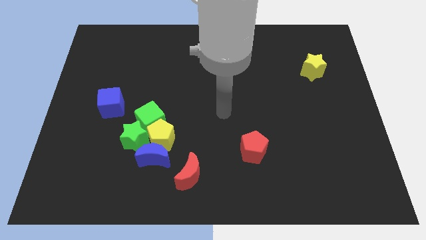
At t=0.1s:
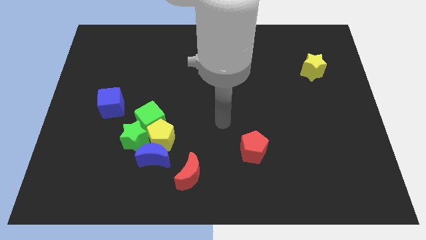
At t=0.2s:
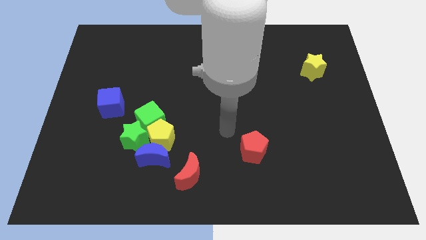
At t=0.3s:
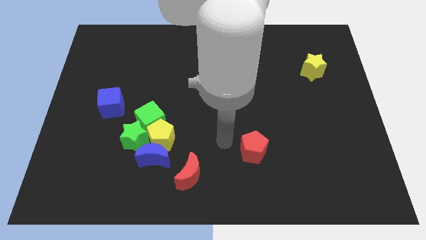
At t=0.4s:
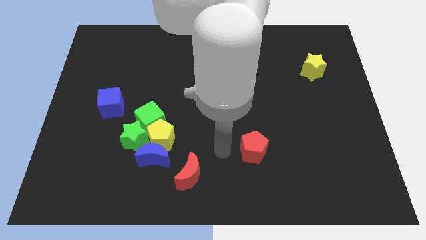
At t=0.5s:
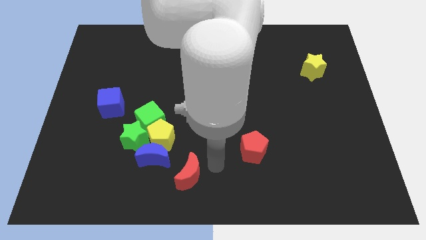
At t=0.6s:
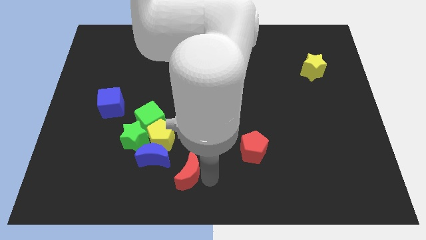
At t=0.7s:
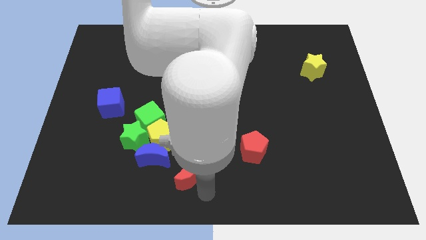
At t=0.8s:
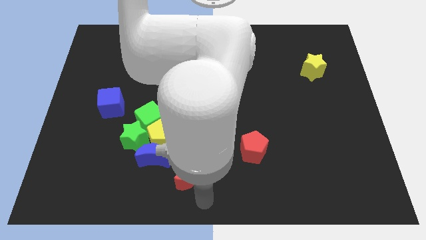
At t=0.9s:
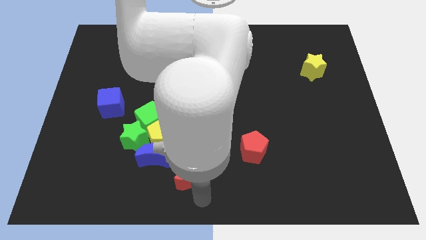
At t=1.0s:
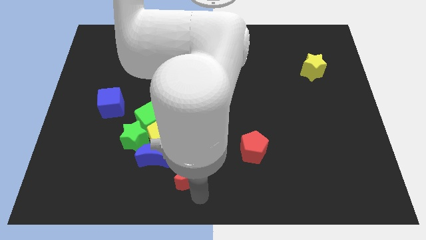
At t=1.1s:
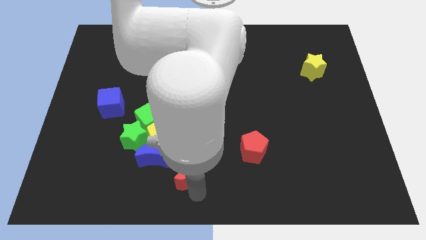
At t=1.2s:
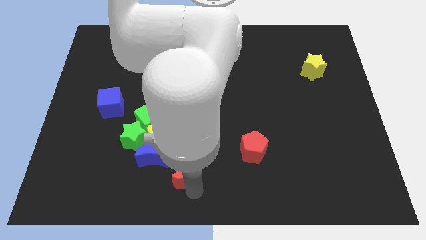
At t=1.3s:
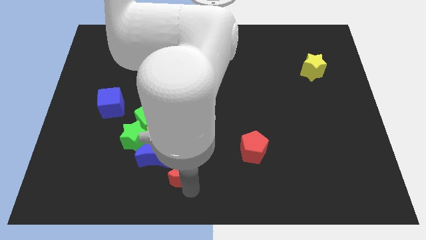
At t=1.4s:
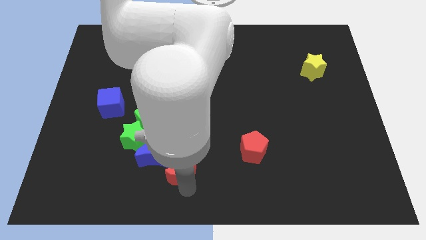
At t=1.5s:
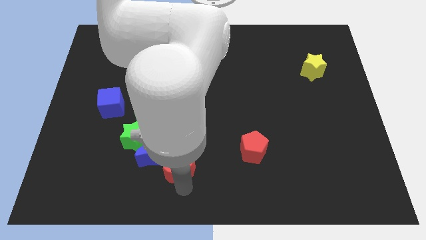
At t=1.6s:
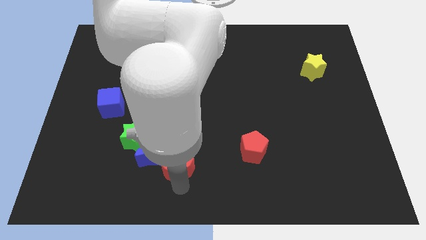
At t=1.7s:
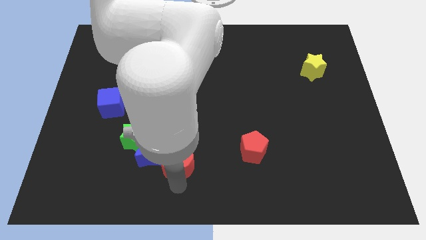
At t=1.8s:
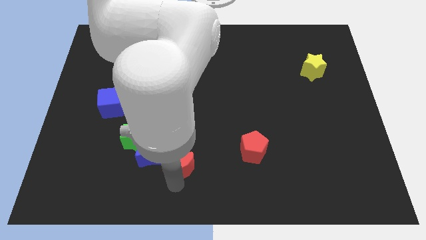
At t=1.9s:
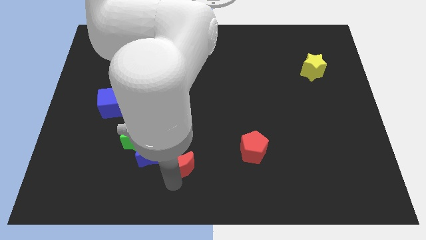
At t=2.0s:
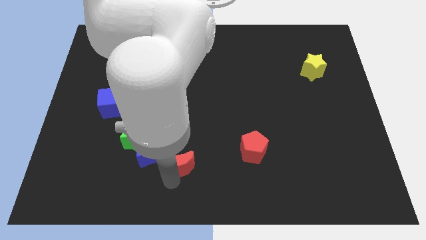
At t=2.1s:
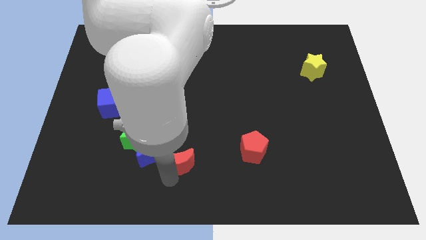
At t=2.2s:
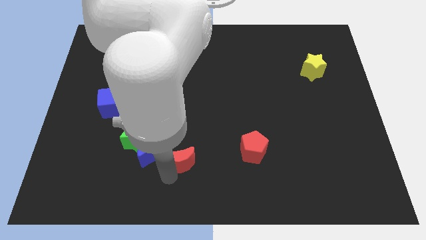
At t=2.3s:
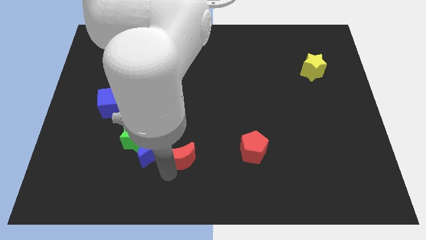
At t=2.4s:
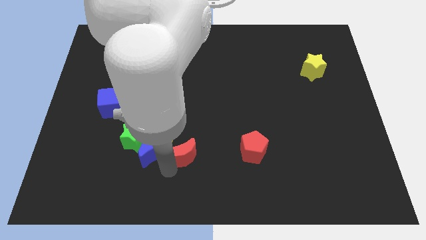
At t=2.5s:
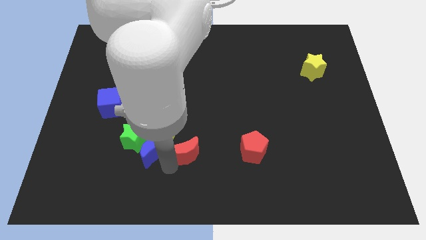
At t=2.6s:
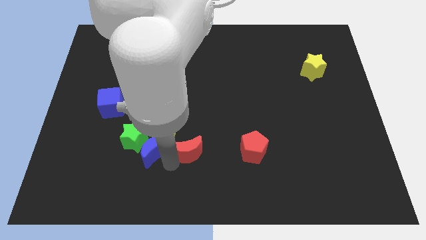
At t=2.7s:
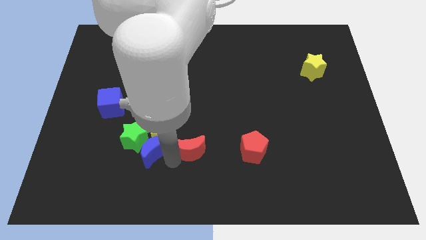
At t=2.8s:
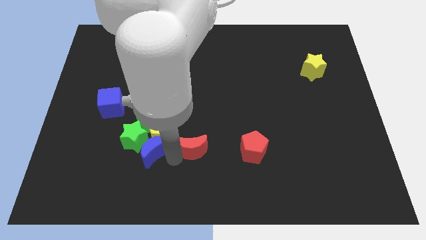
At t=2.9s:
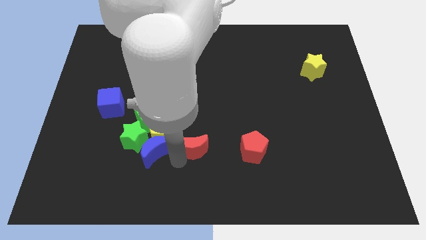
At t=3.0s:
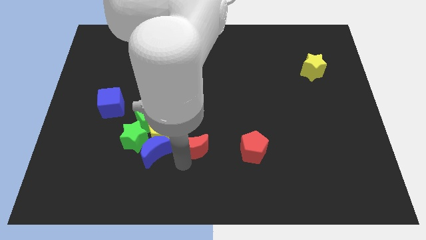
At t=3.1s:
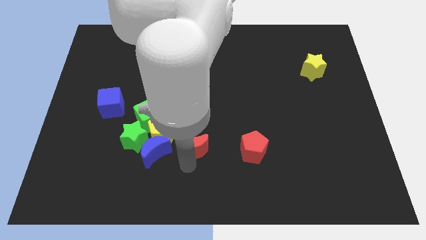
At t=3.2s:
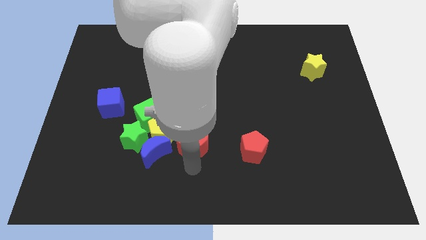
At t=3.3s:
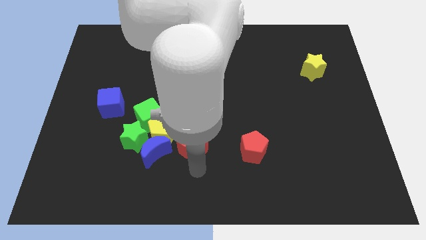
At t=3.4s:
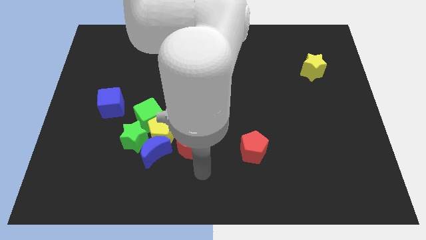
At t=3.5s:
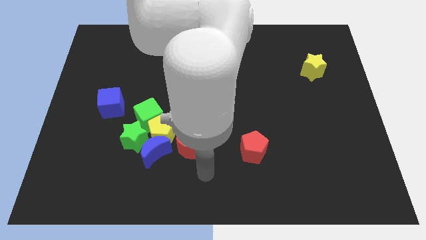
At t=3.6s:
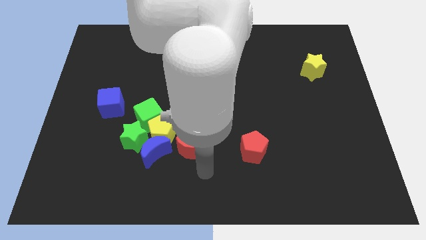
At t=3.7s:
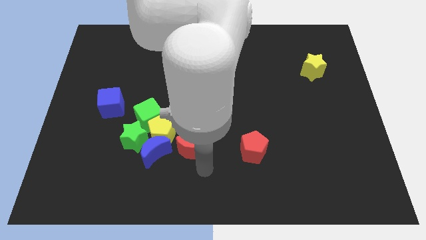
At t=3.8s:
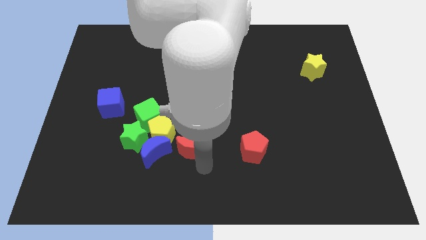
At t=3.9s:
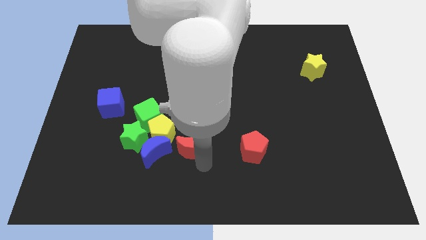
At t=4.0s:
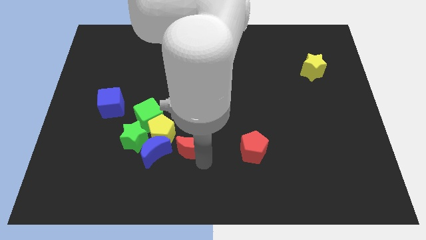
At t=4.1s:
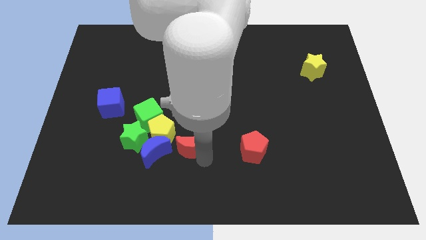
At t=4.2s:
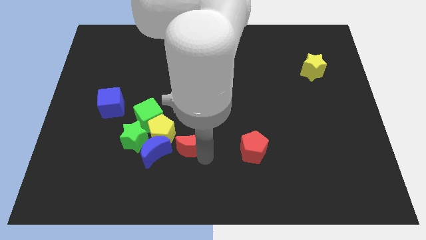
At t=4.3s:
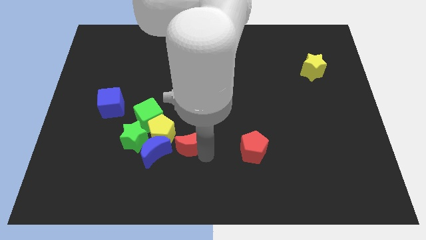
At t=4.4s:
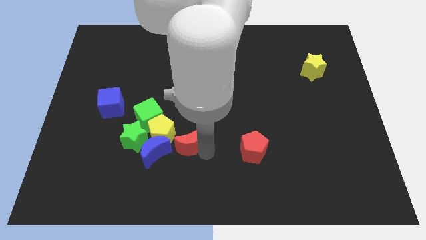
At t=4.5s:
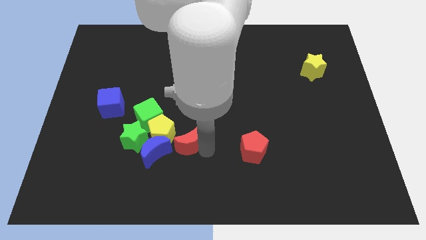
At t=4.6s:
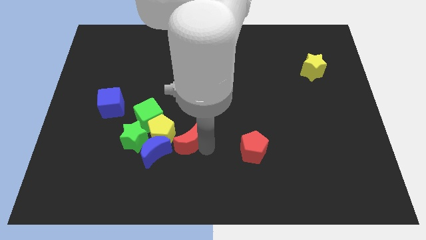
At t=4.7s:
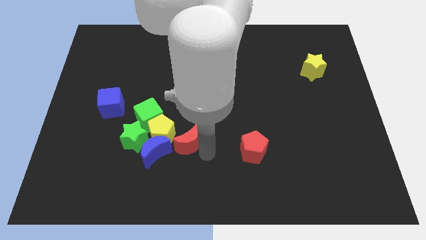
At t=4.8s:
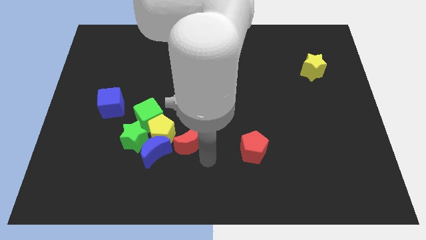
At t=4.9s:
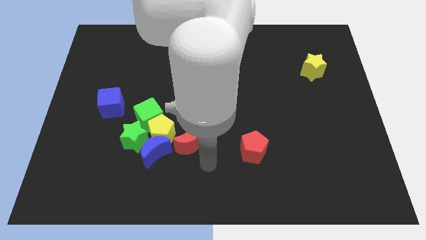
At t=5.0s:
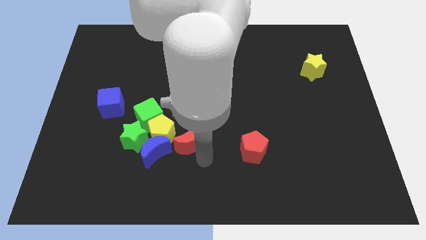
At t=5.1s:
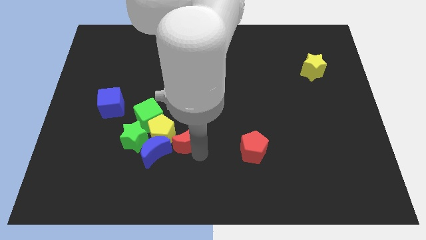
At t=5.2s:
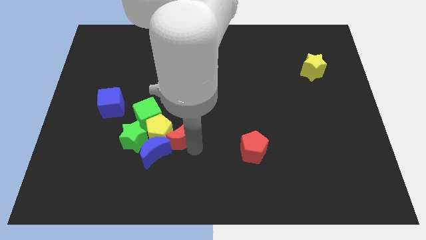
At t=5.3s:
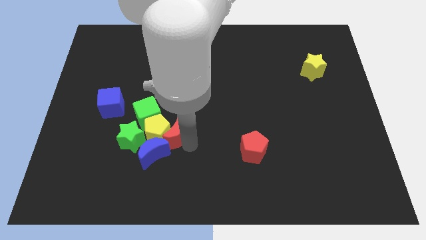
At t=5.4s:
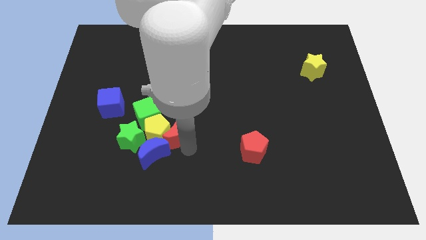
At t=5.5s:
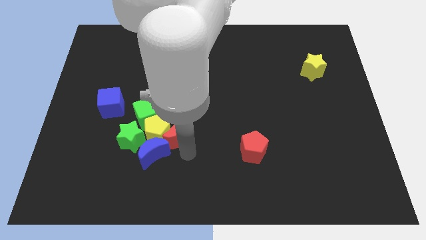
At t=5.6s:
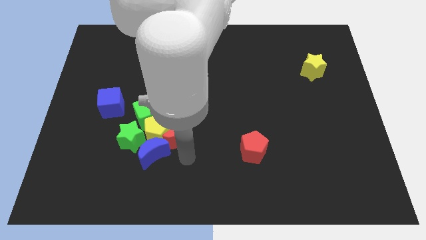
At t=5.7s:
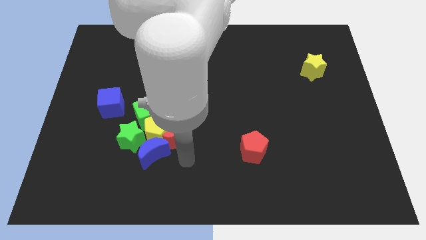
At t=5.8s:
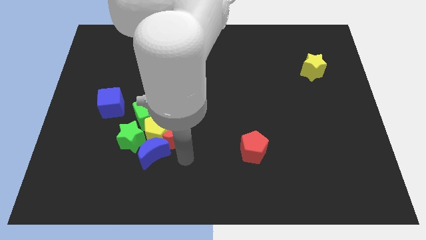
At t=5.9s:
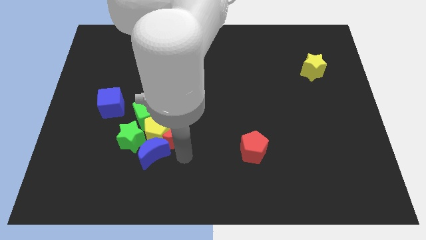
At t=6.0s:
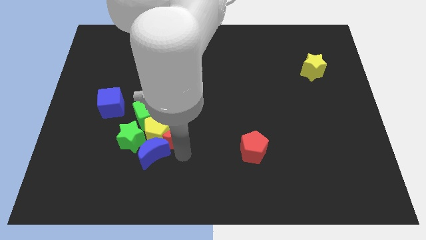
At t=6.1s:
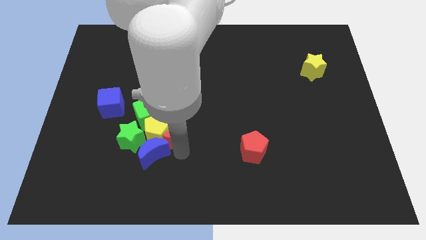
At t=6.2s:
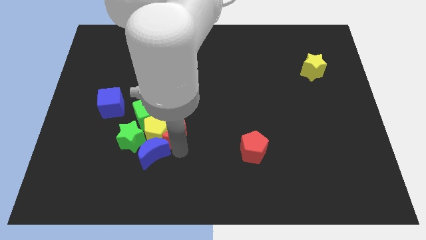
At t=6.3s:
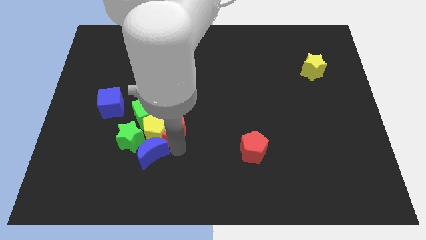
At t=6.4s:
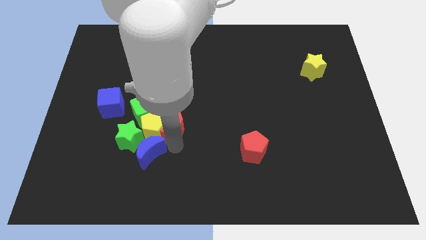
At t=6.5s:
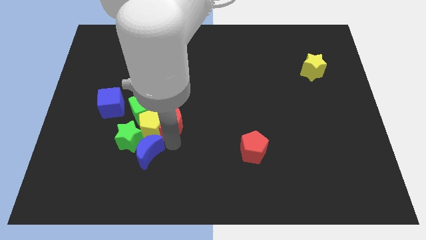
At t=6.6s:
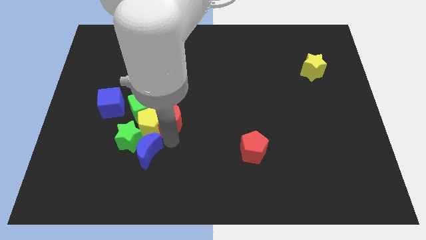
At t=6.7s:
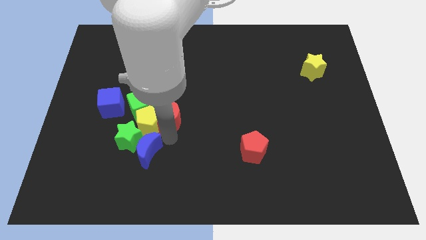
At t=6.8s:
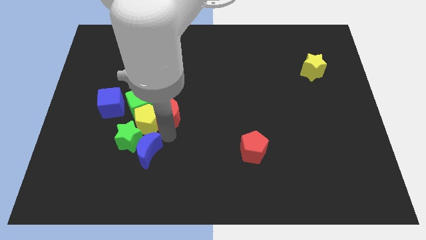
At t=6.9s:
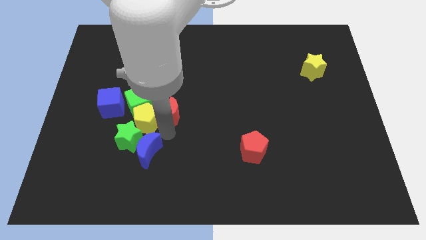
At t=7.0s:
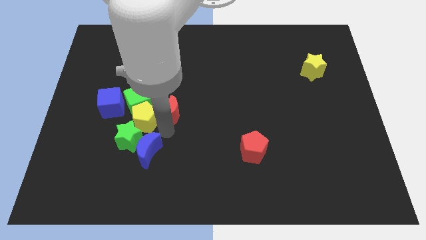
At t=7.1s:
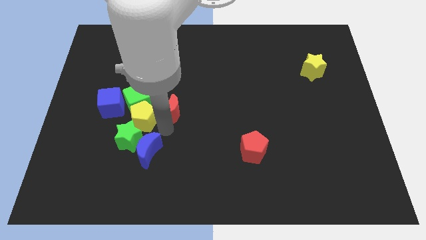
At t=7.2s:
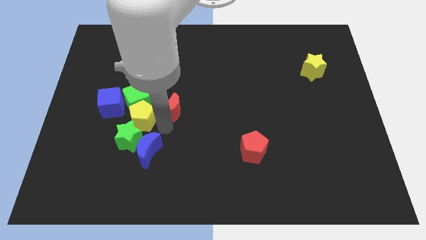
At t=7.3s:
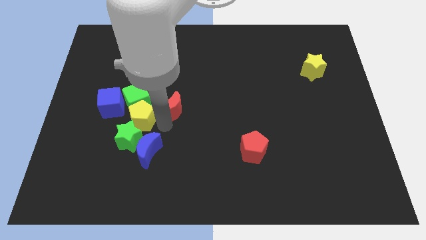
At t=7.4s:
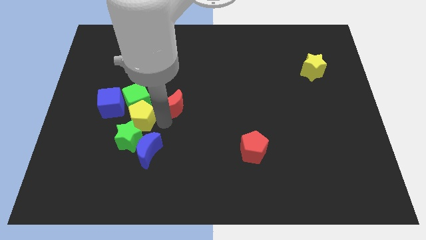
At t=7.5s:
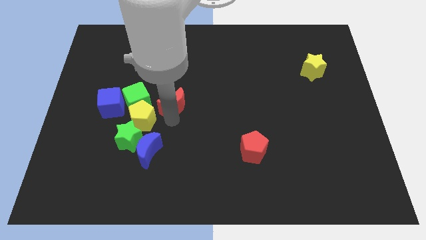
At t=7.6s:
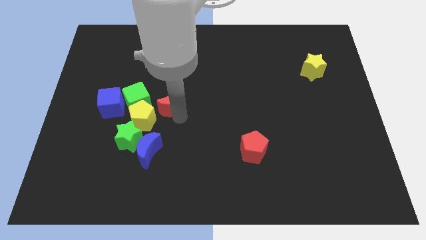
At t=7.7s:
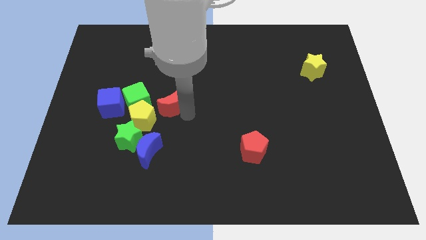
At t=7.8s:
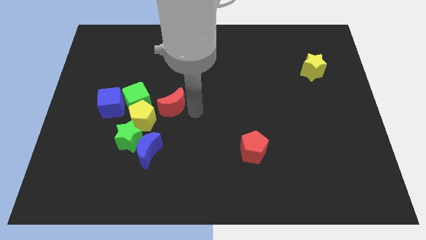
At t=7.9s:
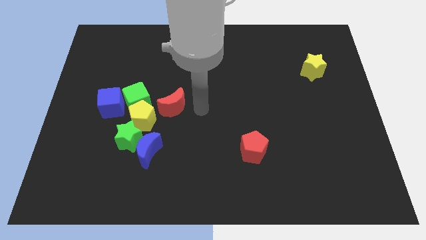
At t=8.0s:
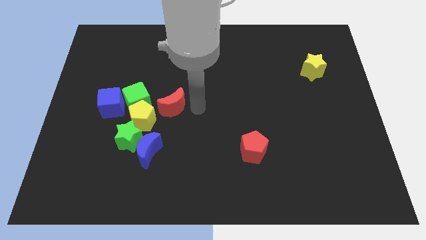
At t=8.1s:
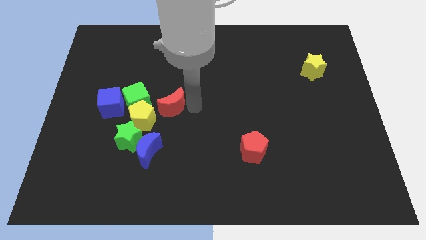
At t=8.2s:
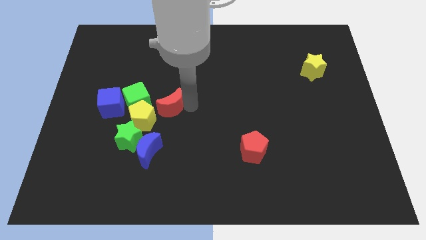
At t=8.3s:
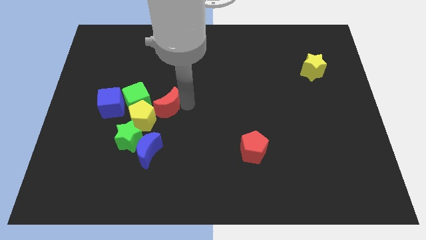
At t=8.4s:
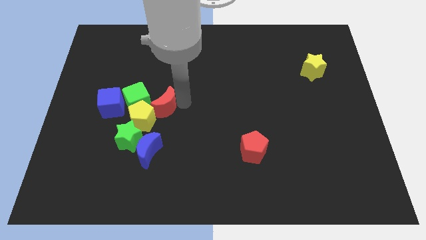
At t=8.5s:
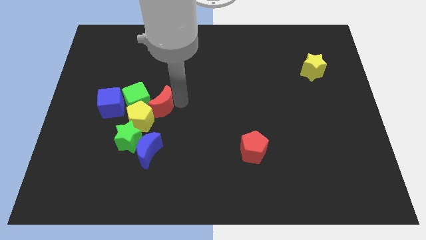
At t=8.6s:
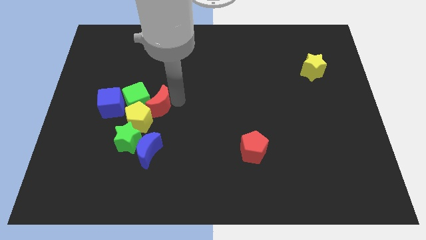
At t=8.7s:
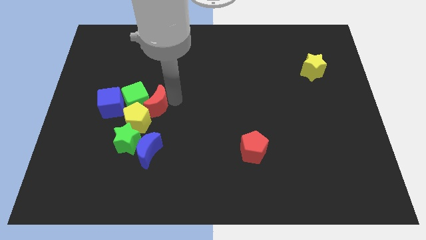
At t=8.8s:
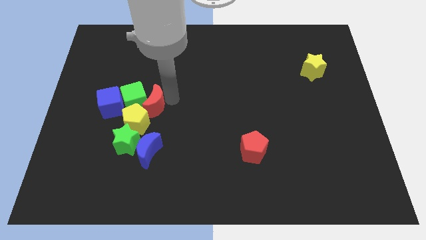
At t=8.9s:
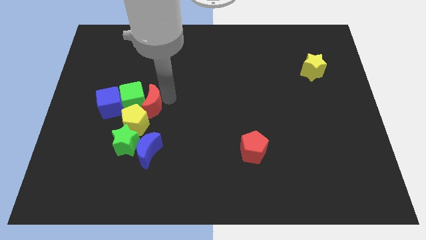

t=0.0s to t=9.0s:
put the red moon to the top of the green star
